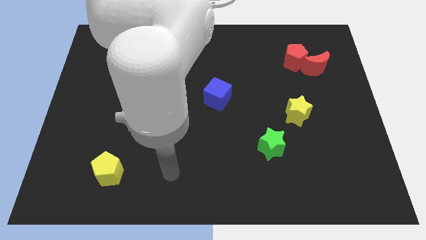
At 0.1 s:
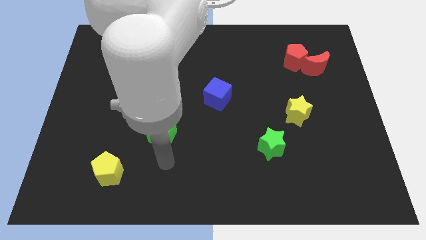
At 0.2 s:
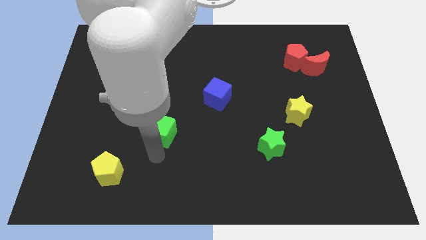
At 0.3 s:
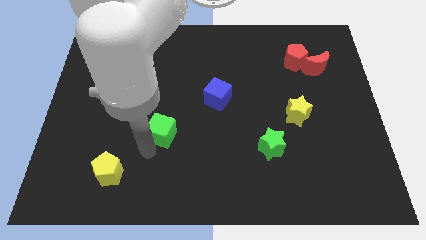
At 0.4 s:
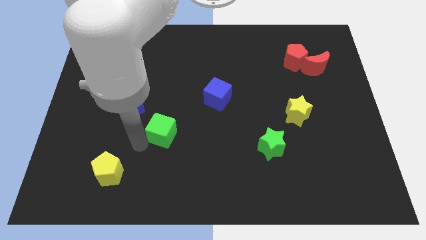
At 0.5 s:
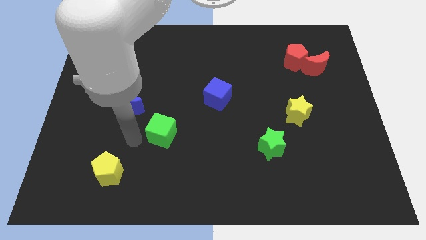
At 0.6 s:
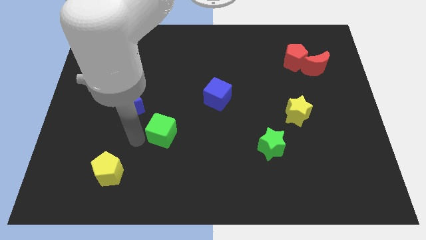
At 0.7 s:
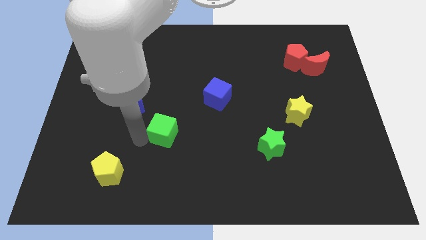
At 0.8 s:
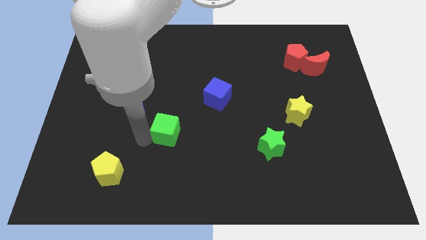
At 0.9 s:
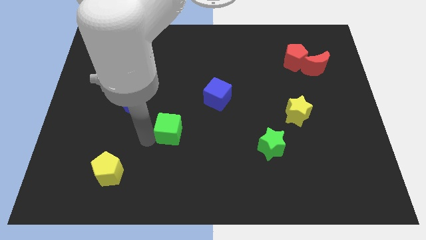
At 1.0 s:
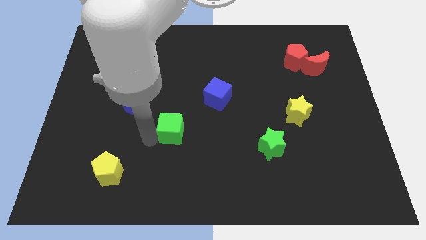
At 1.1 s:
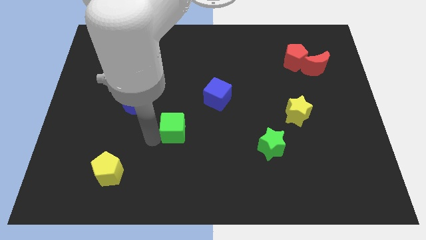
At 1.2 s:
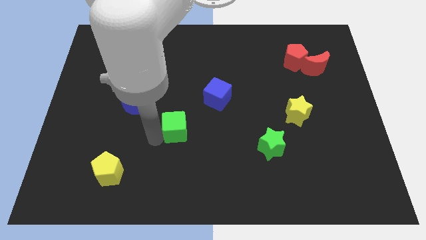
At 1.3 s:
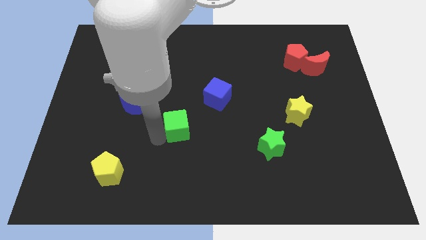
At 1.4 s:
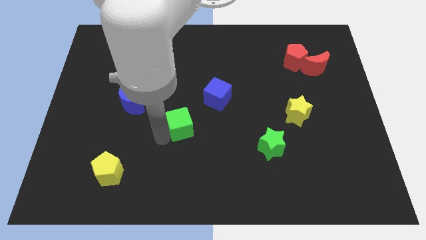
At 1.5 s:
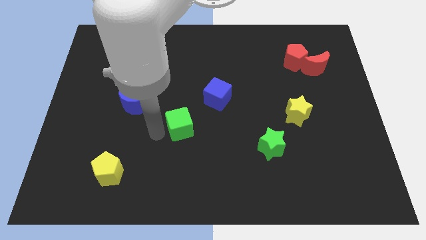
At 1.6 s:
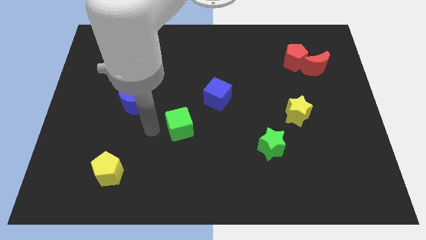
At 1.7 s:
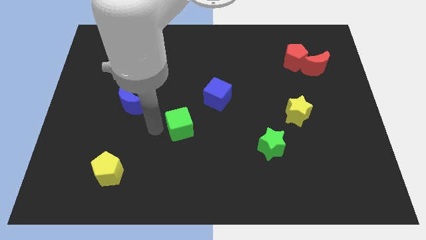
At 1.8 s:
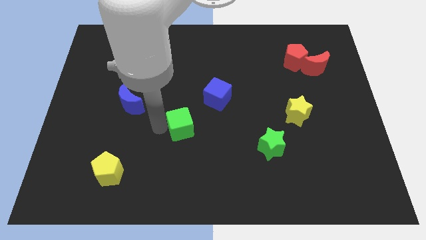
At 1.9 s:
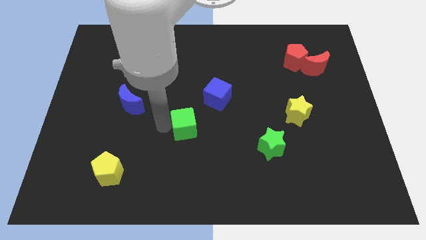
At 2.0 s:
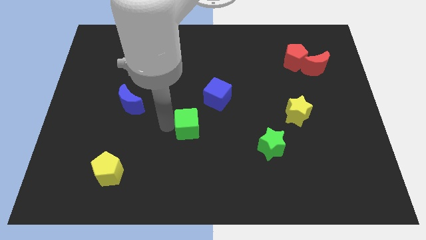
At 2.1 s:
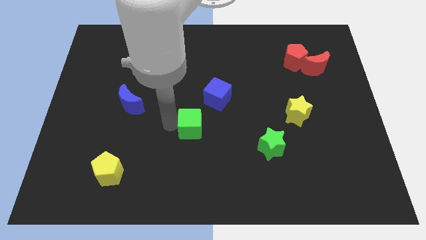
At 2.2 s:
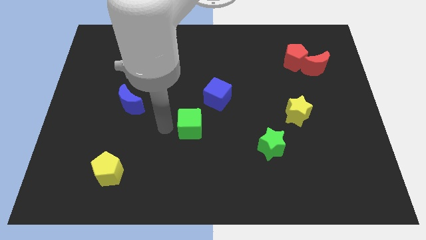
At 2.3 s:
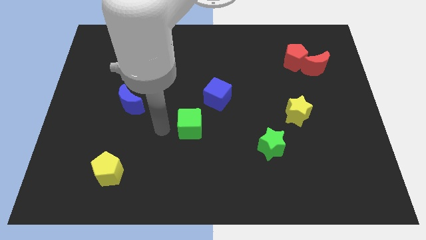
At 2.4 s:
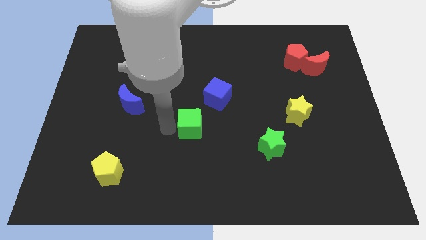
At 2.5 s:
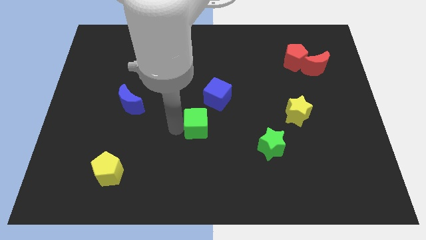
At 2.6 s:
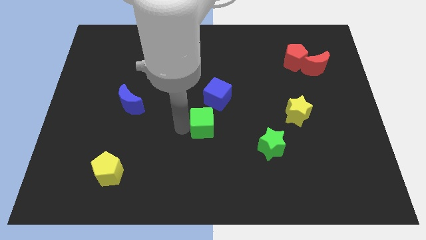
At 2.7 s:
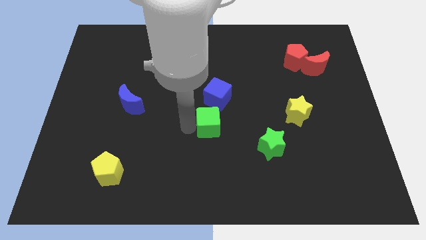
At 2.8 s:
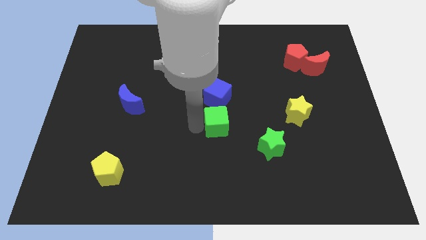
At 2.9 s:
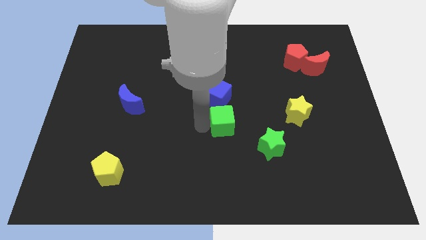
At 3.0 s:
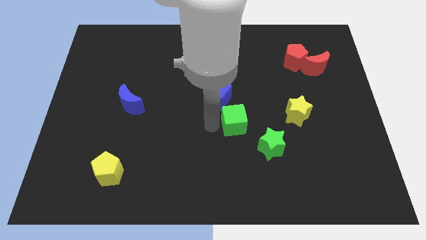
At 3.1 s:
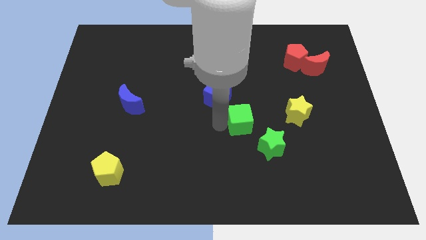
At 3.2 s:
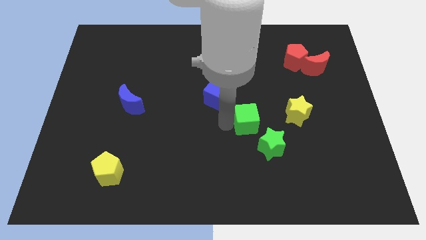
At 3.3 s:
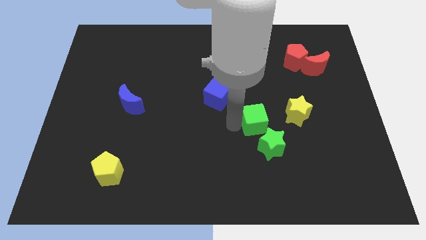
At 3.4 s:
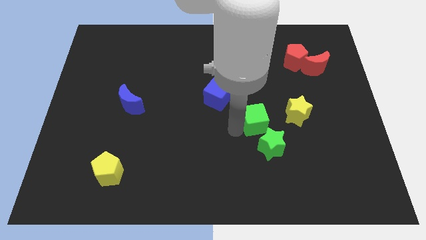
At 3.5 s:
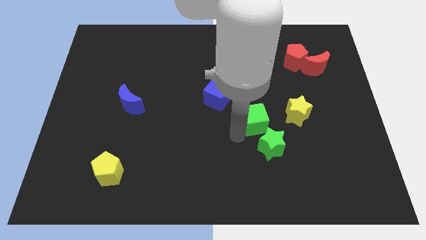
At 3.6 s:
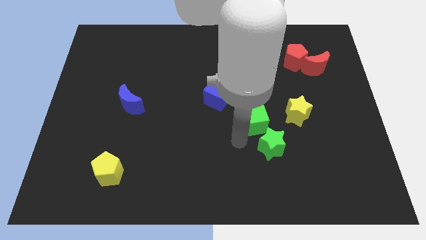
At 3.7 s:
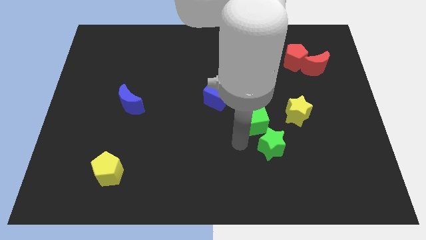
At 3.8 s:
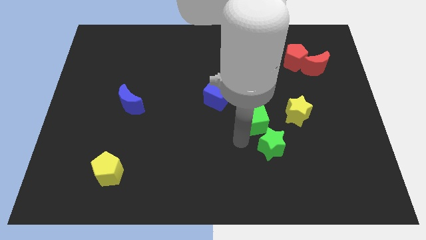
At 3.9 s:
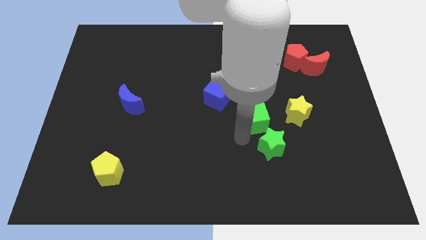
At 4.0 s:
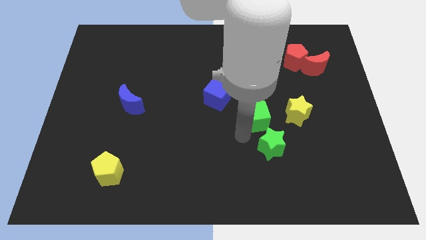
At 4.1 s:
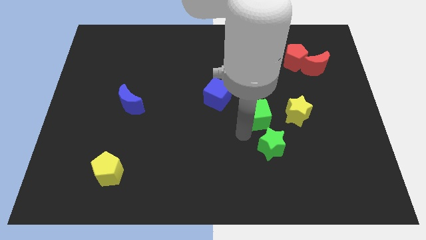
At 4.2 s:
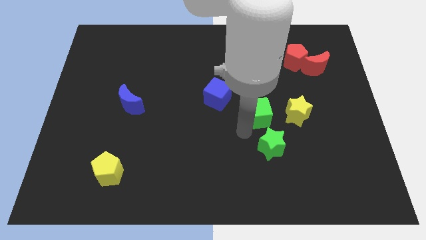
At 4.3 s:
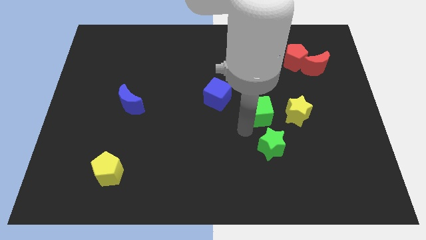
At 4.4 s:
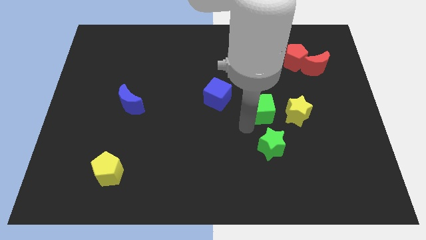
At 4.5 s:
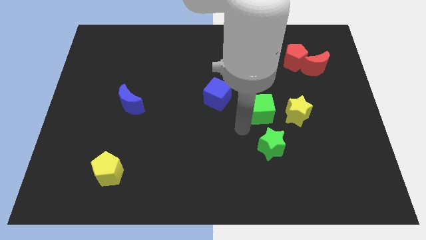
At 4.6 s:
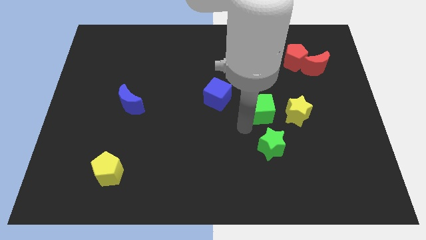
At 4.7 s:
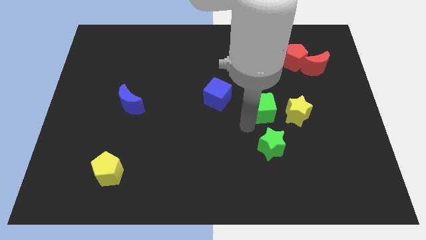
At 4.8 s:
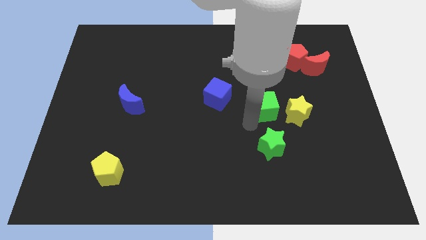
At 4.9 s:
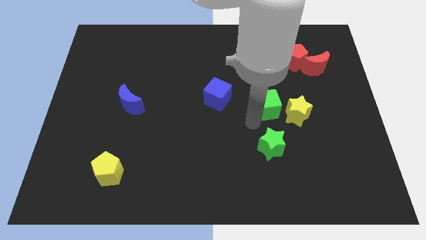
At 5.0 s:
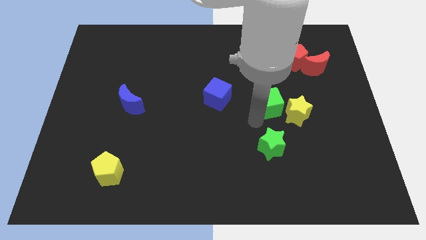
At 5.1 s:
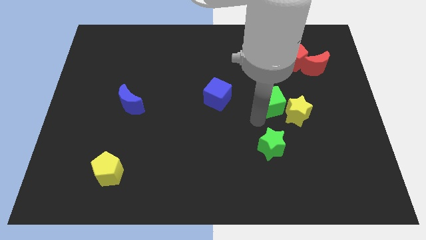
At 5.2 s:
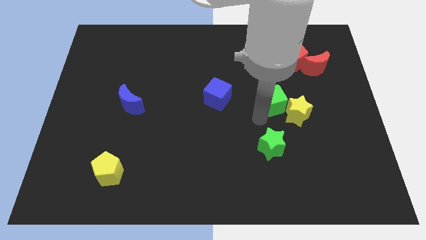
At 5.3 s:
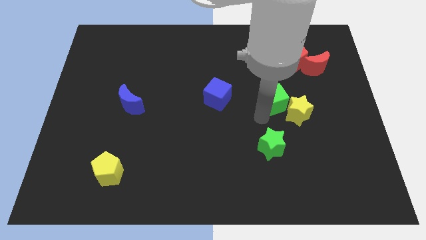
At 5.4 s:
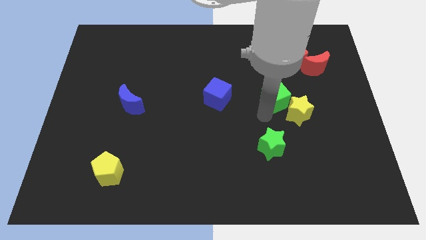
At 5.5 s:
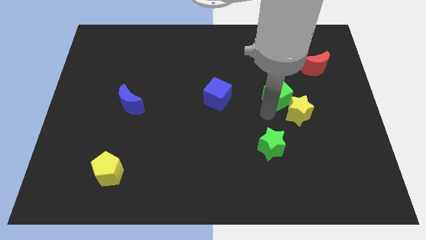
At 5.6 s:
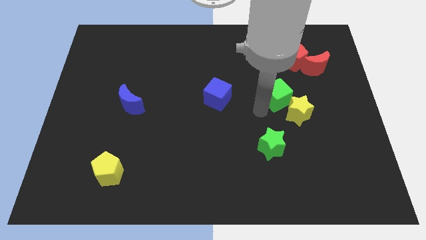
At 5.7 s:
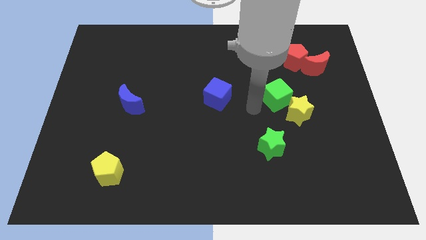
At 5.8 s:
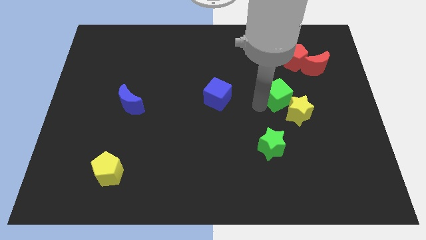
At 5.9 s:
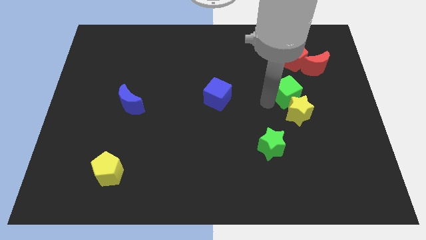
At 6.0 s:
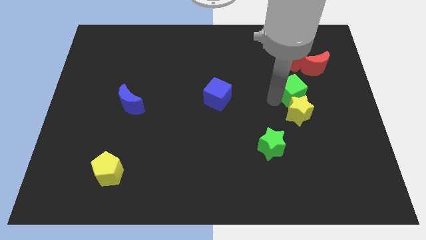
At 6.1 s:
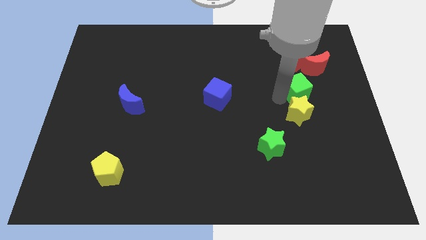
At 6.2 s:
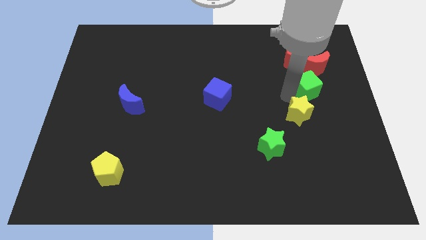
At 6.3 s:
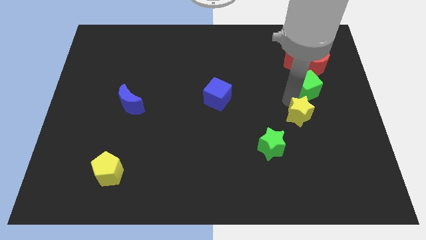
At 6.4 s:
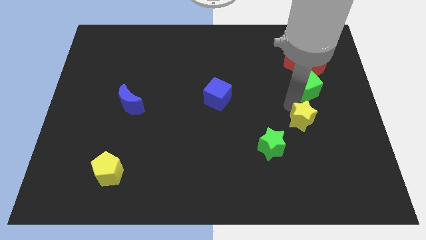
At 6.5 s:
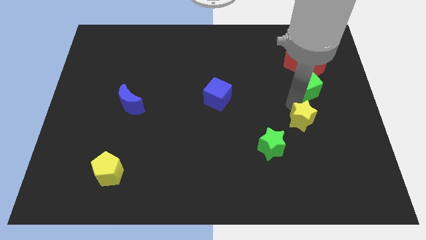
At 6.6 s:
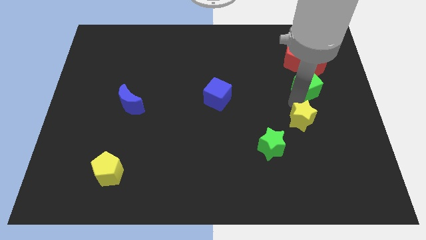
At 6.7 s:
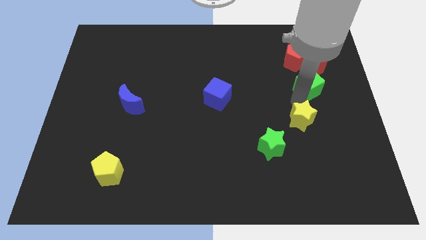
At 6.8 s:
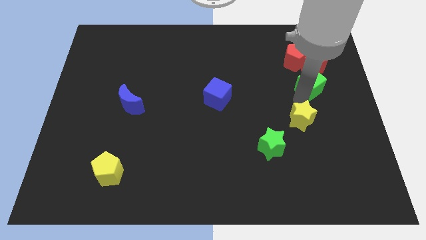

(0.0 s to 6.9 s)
slide the green cube diagonally down and to the right of the red pentagon
